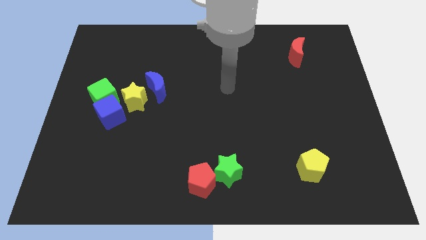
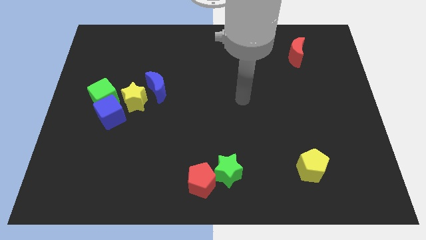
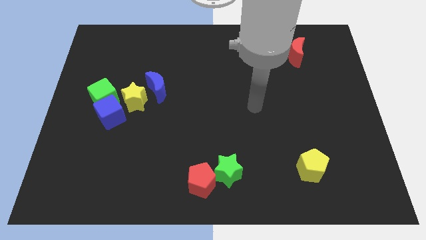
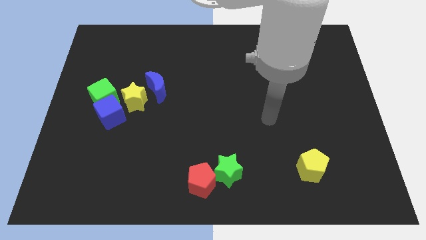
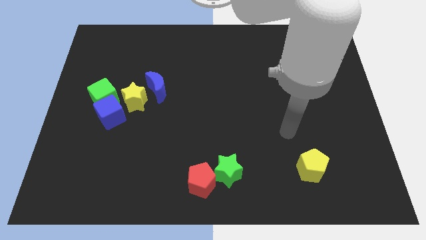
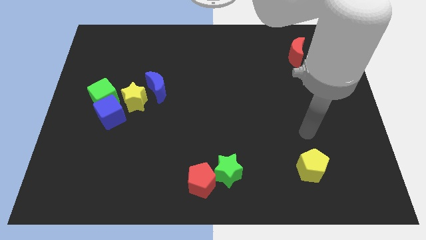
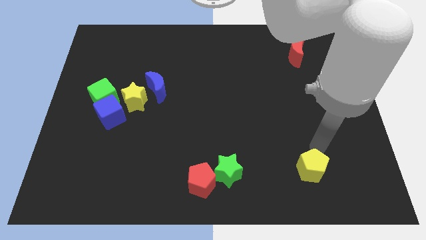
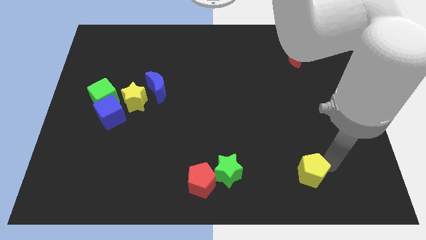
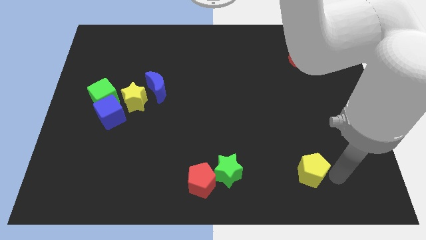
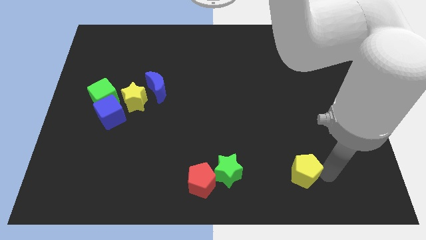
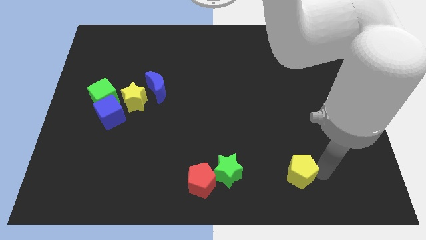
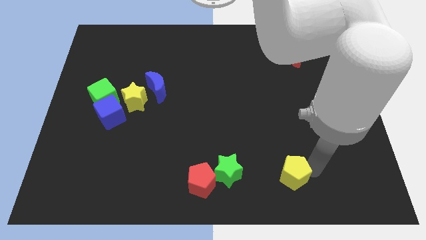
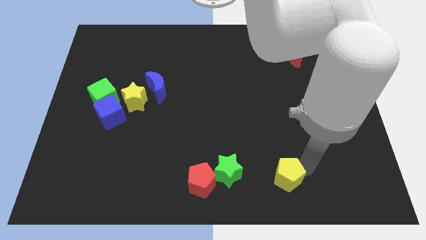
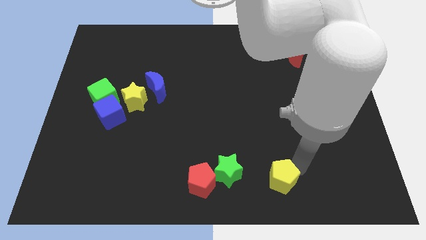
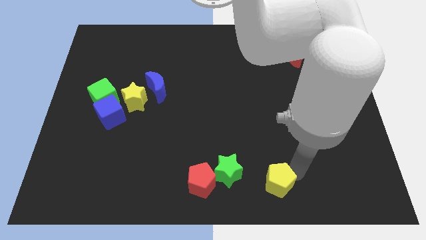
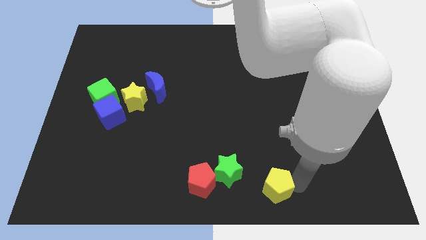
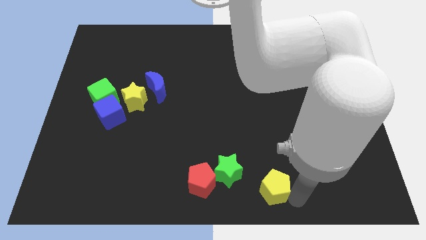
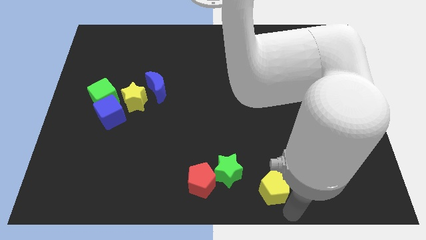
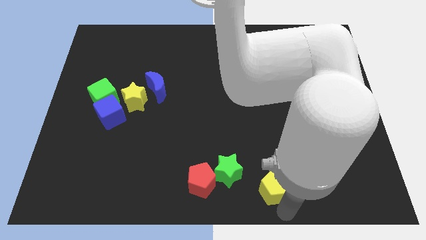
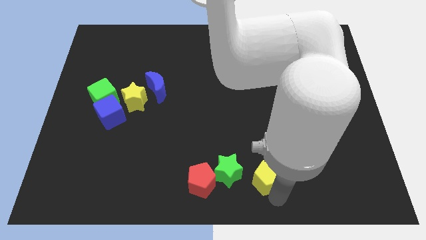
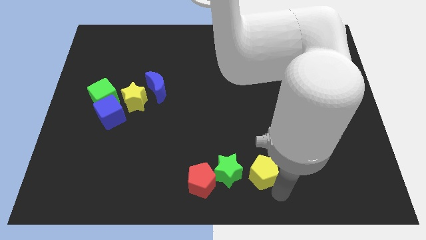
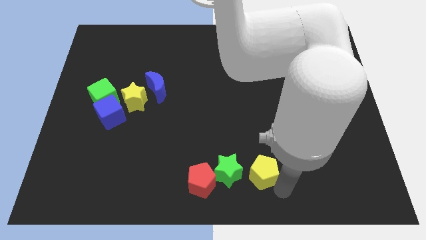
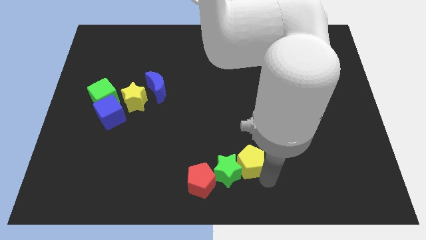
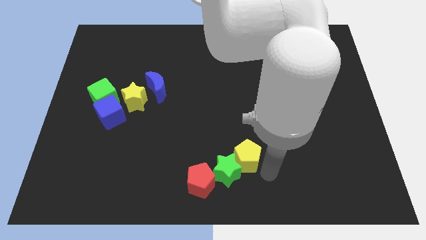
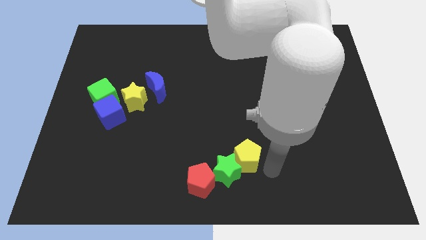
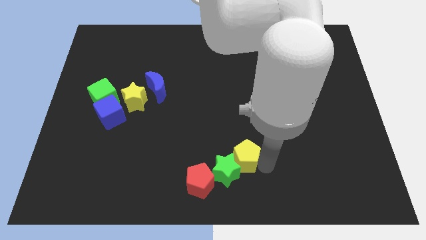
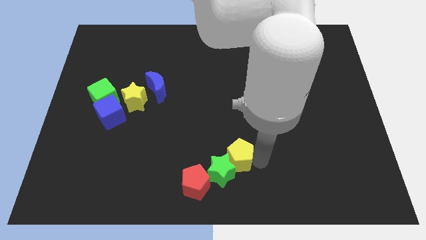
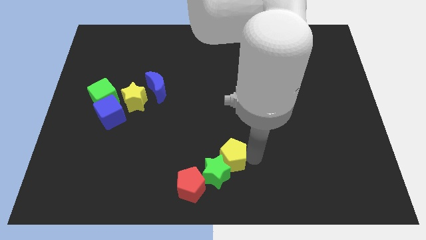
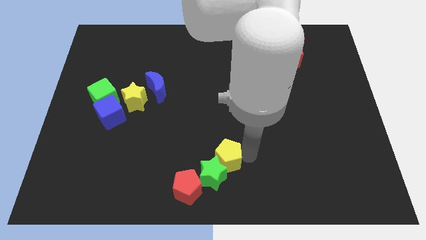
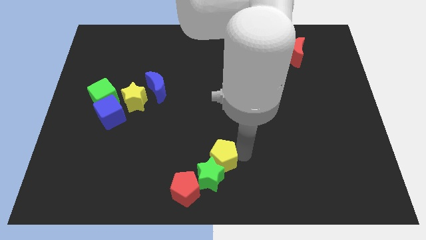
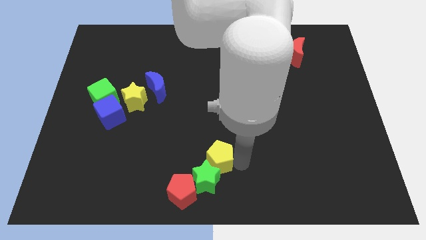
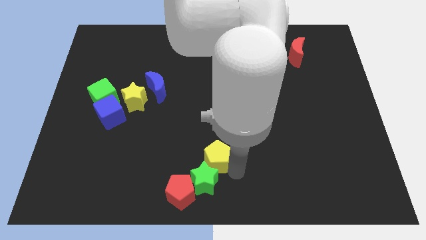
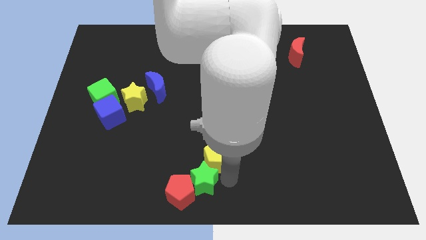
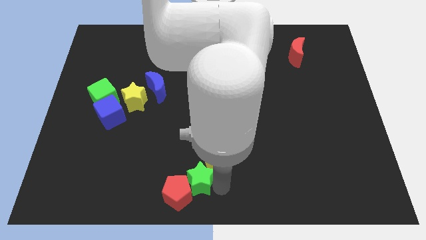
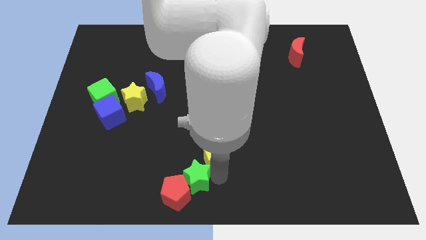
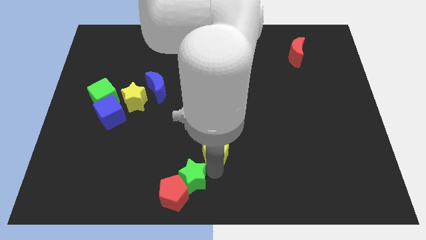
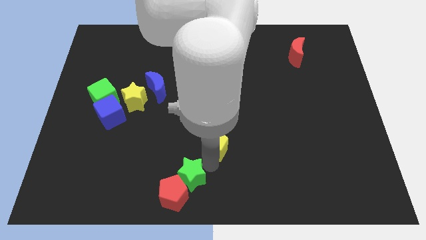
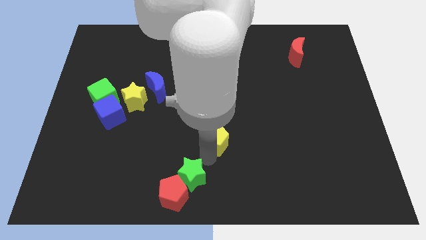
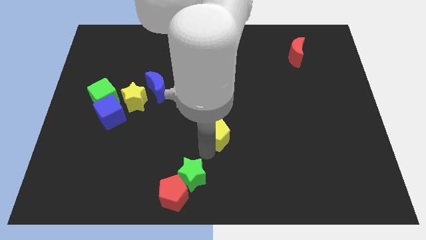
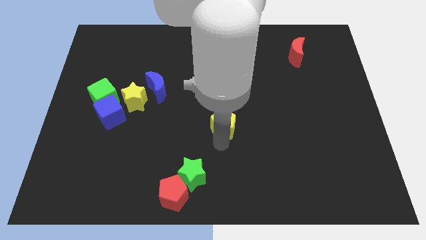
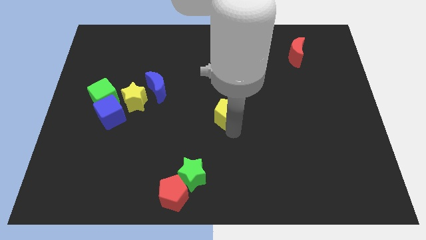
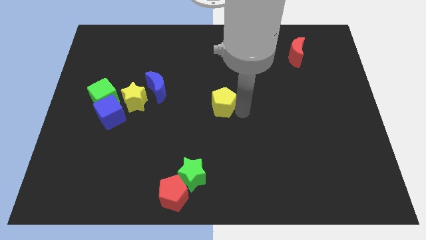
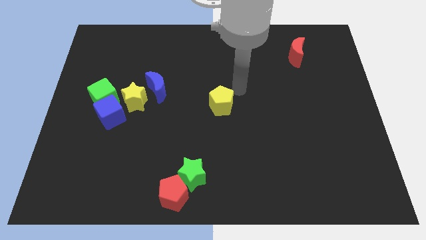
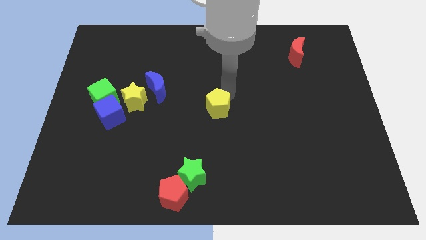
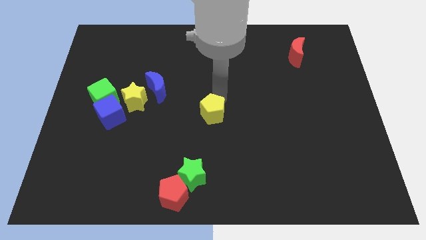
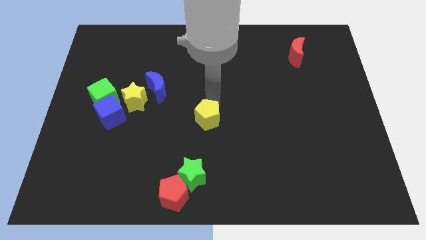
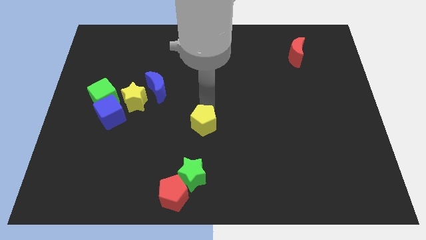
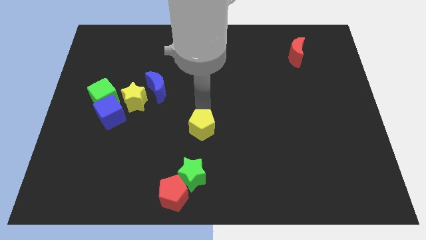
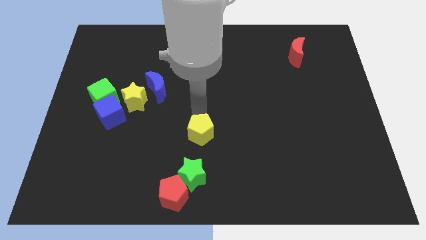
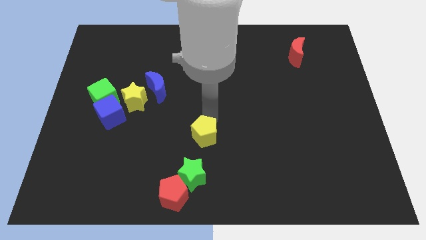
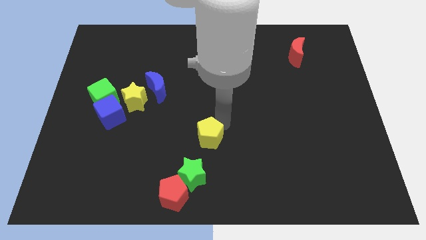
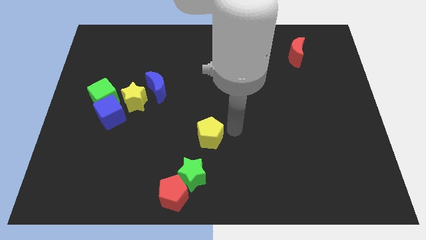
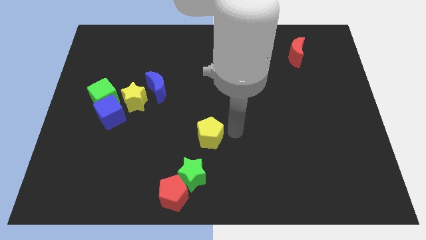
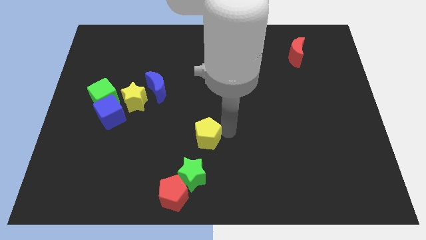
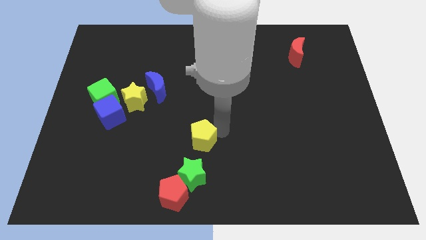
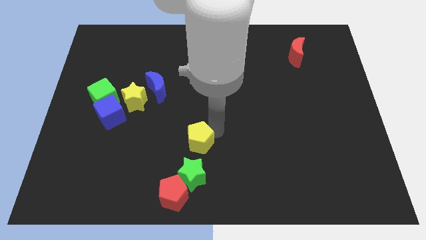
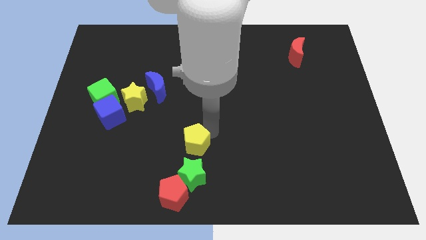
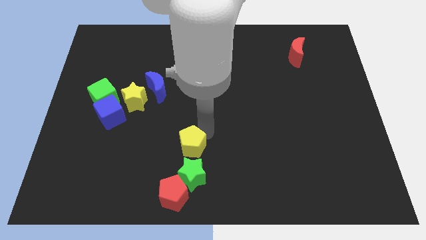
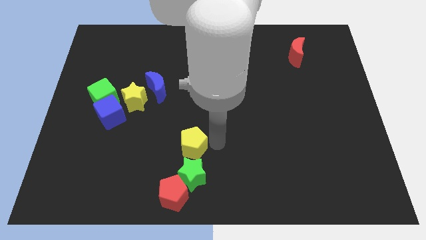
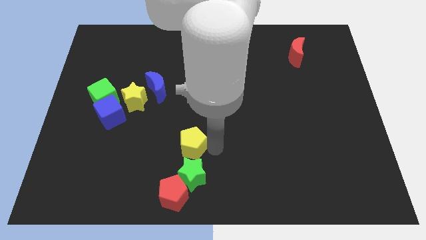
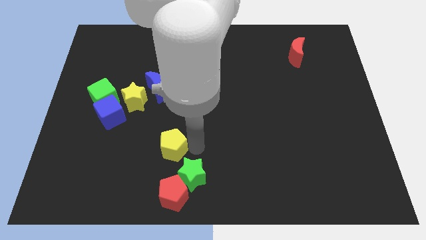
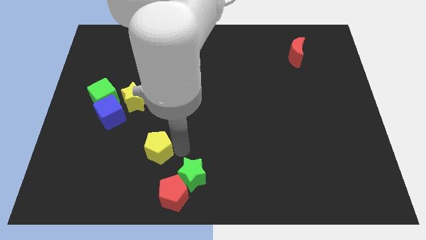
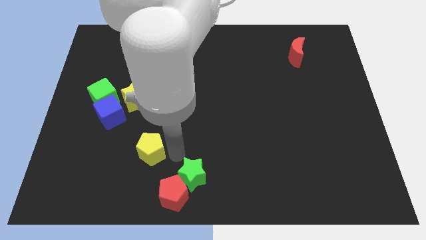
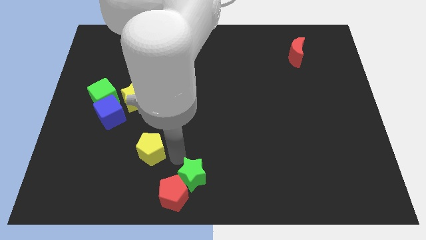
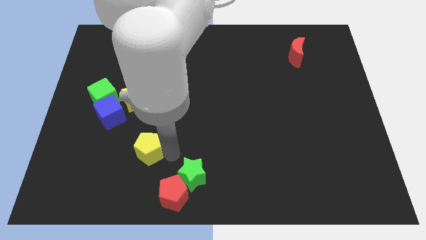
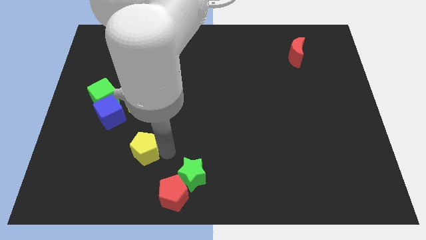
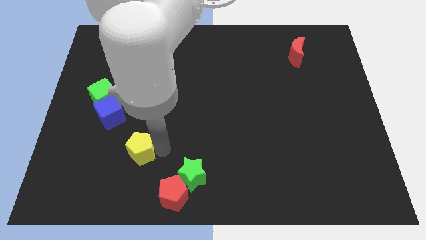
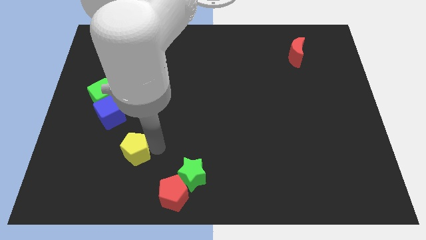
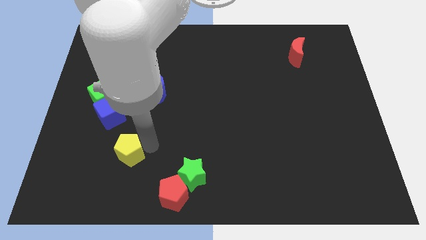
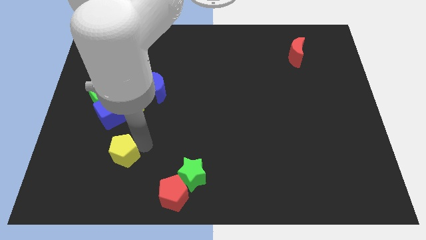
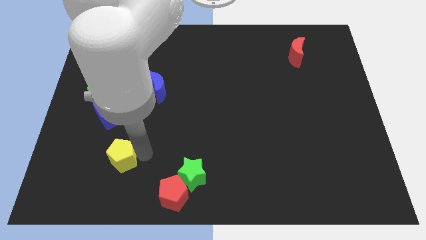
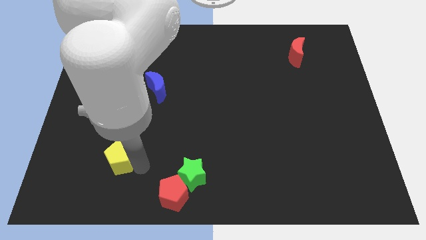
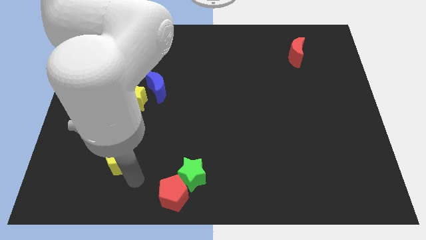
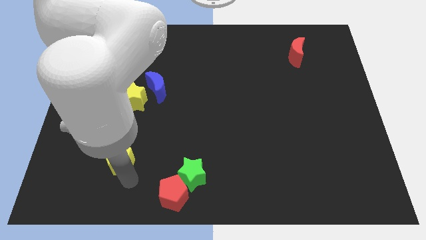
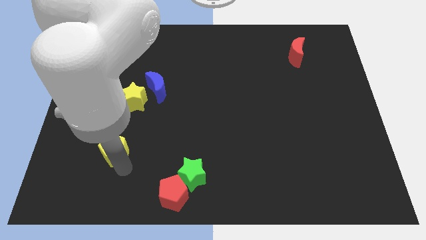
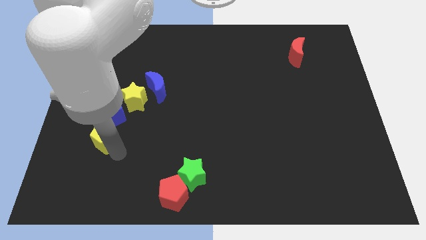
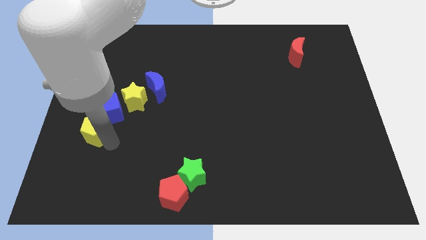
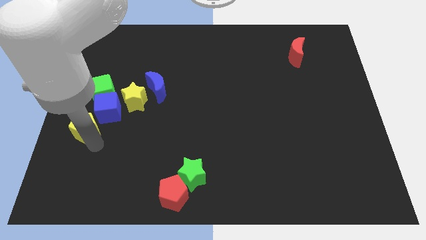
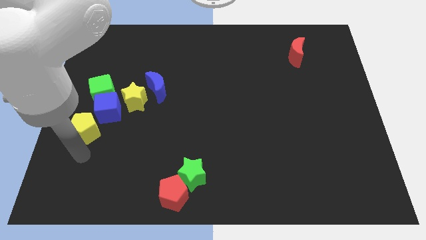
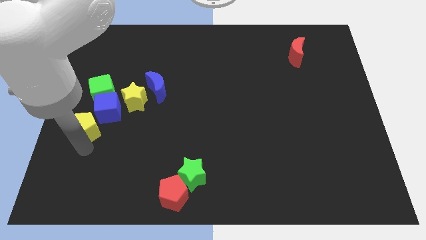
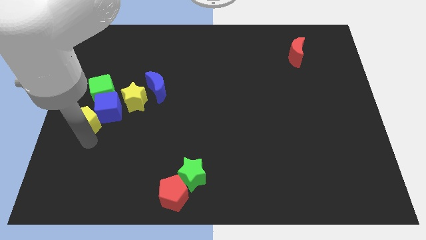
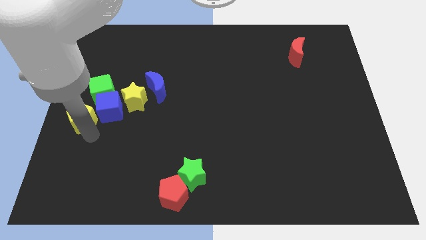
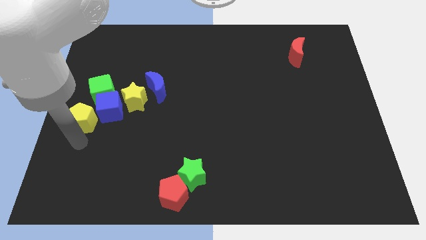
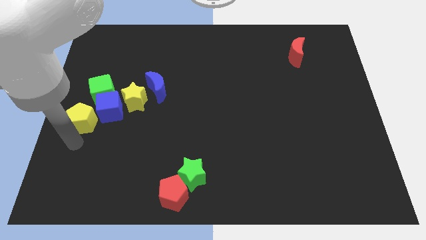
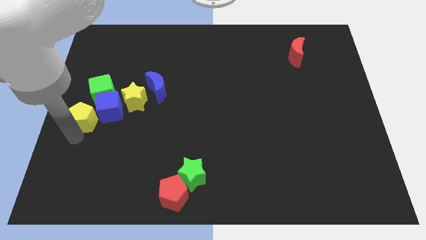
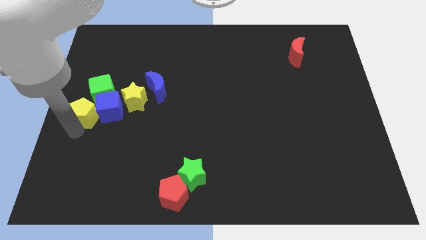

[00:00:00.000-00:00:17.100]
slide the yellow pentagon left of the yellow star
